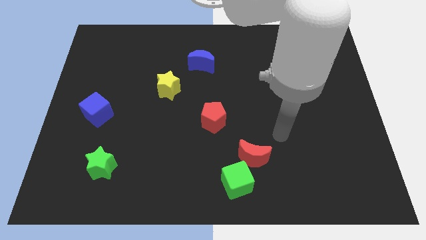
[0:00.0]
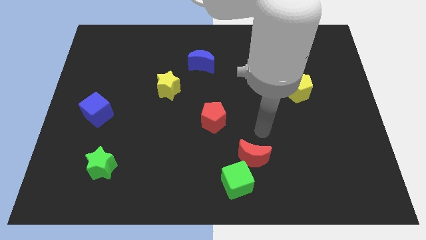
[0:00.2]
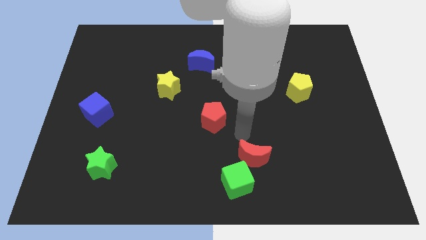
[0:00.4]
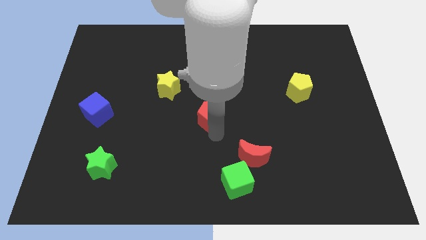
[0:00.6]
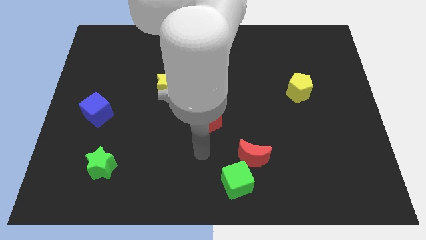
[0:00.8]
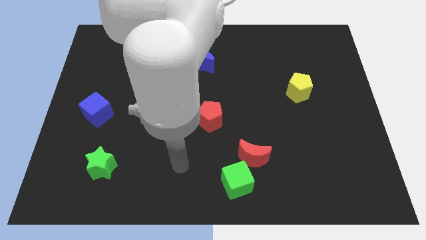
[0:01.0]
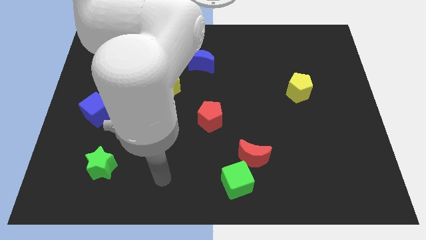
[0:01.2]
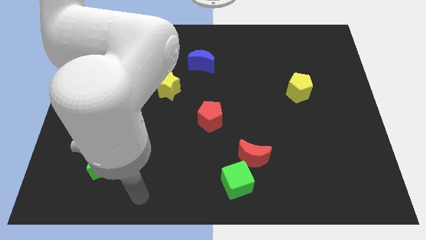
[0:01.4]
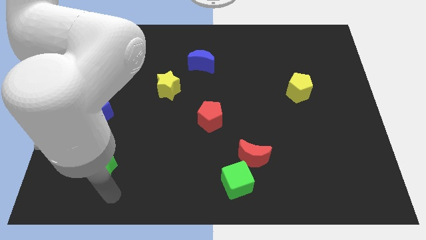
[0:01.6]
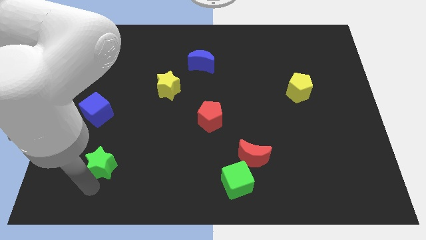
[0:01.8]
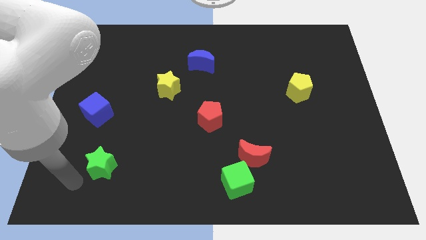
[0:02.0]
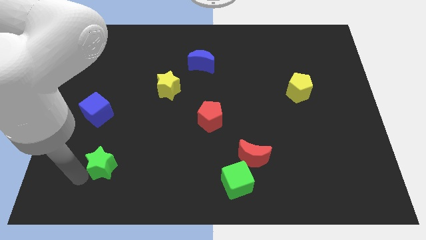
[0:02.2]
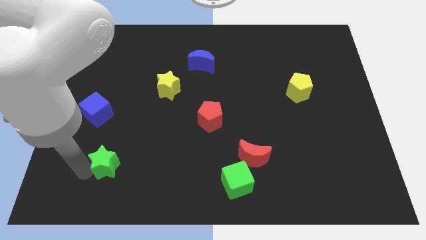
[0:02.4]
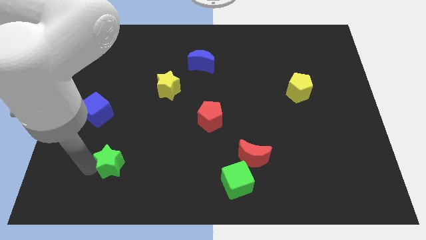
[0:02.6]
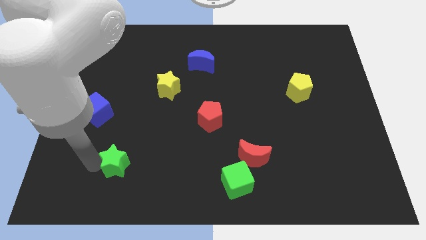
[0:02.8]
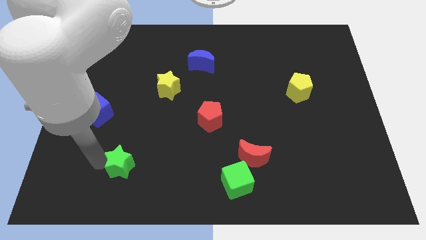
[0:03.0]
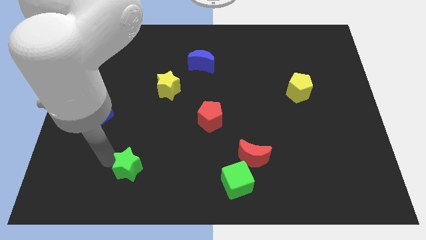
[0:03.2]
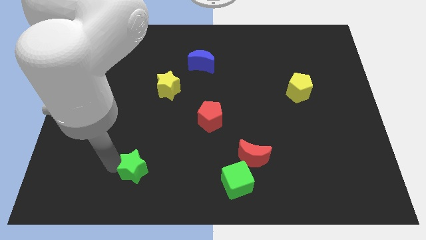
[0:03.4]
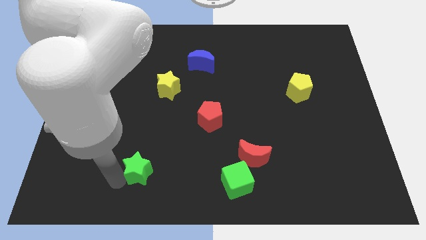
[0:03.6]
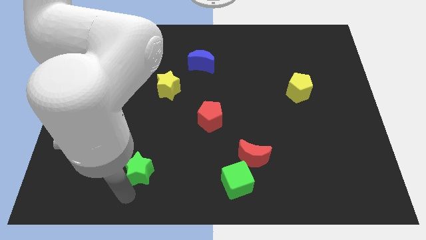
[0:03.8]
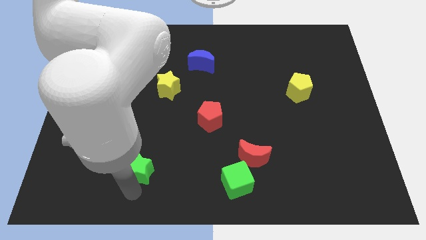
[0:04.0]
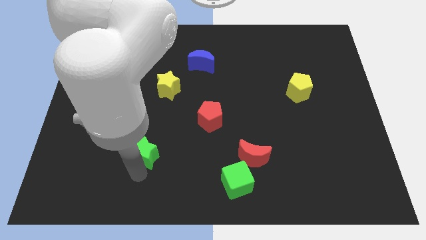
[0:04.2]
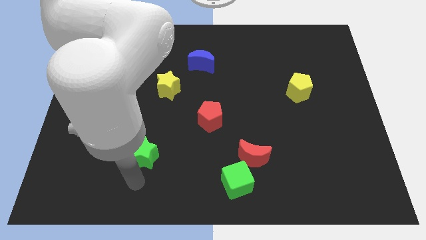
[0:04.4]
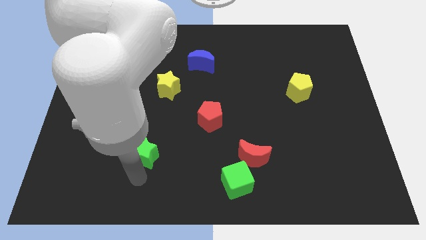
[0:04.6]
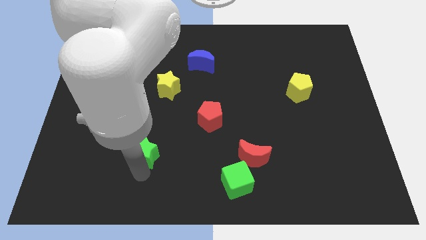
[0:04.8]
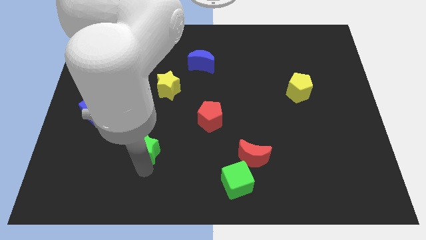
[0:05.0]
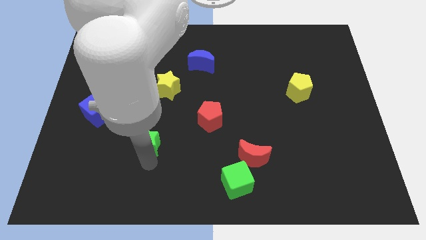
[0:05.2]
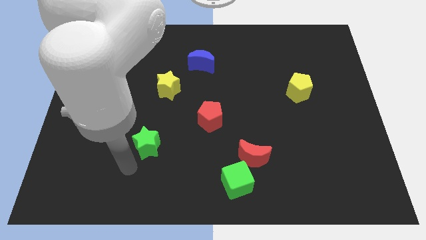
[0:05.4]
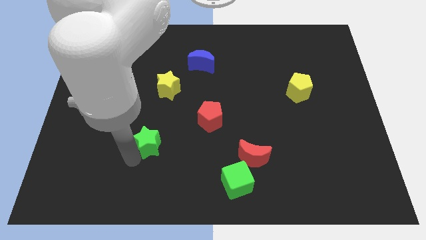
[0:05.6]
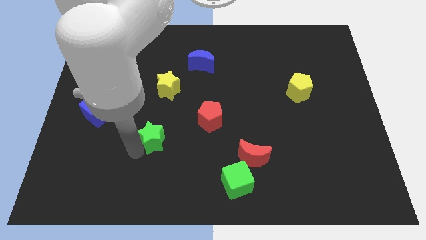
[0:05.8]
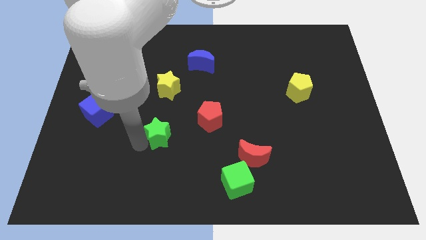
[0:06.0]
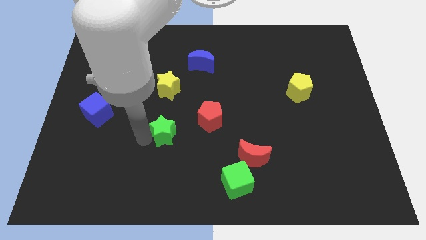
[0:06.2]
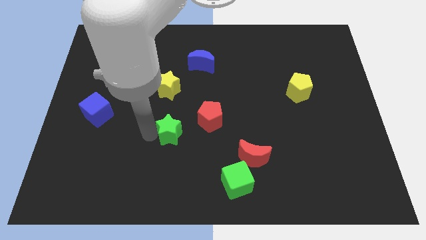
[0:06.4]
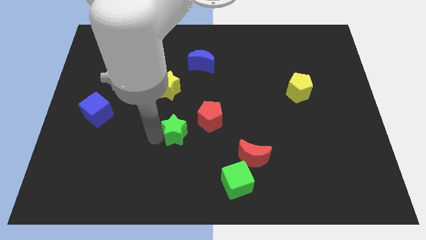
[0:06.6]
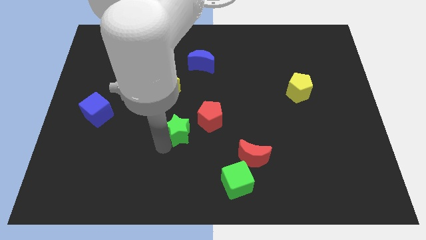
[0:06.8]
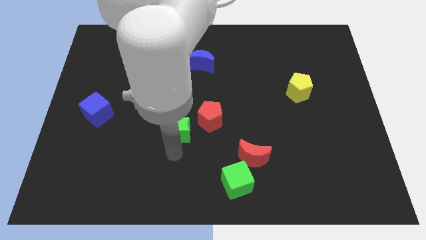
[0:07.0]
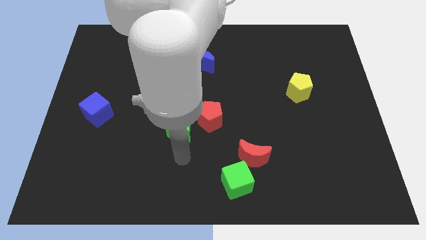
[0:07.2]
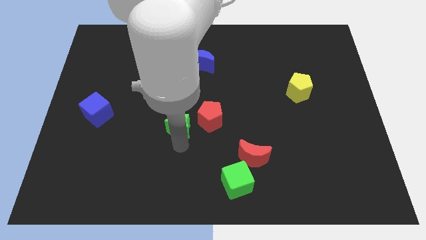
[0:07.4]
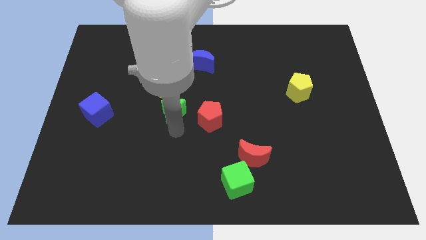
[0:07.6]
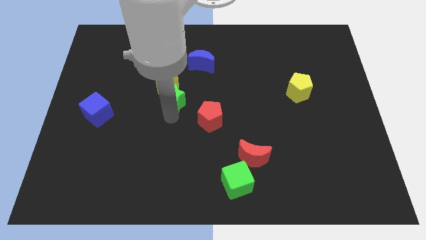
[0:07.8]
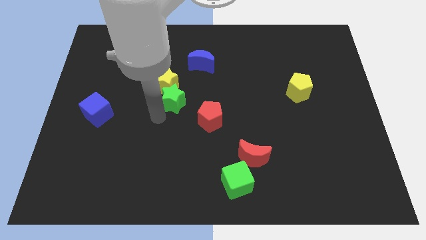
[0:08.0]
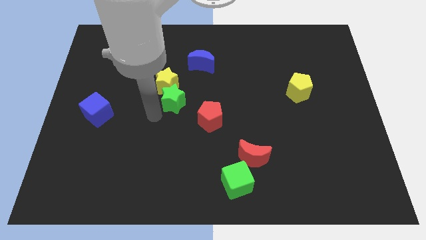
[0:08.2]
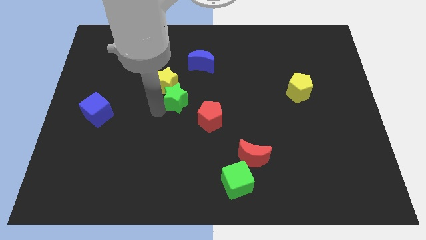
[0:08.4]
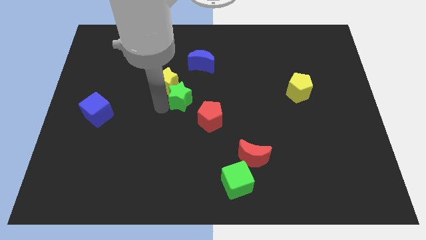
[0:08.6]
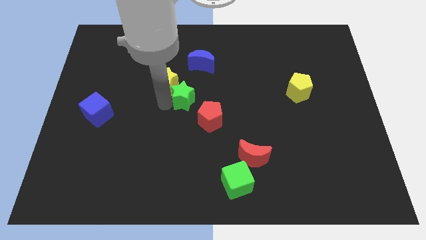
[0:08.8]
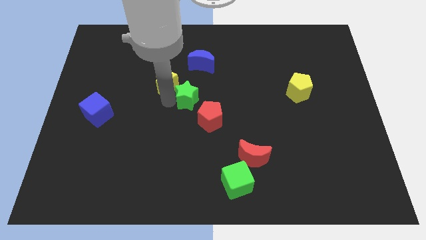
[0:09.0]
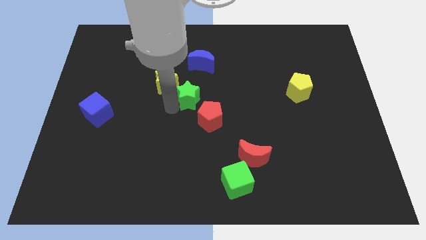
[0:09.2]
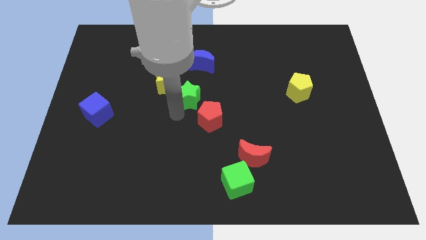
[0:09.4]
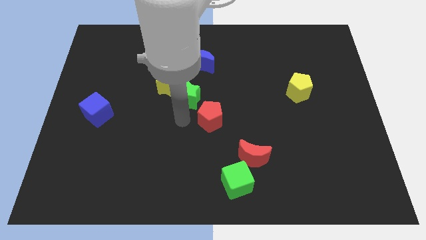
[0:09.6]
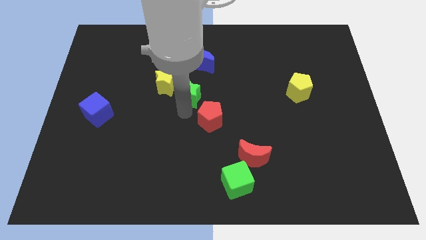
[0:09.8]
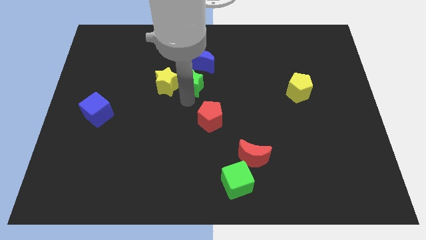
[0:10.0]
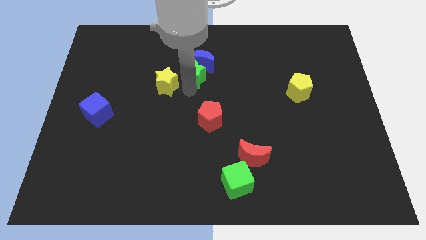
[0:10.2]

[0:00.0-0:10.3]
slide the green star next to the blue moon
